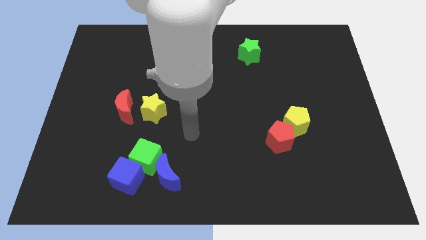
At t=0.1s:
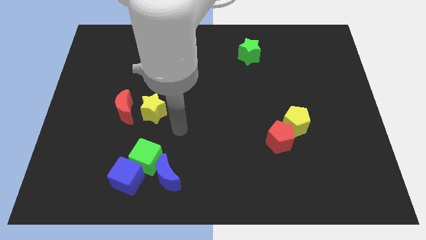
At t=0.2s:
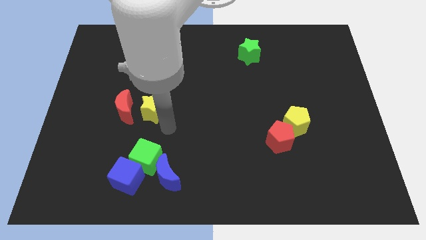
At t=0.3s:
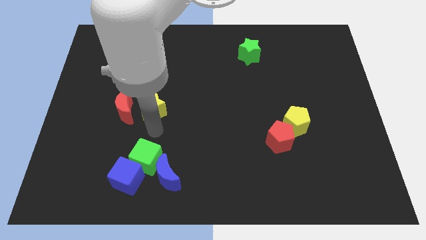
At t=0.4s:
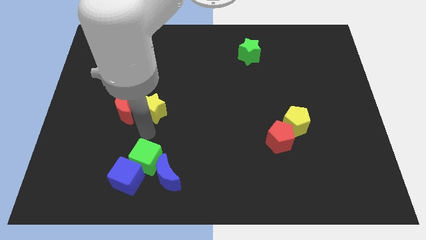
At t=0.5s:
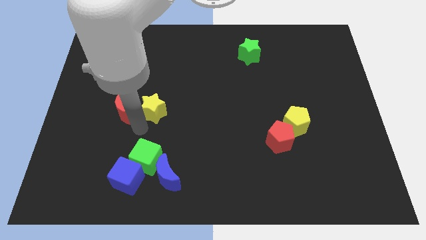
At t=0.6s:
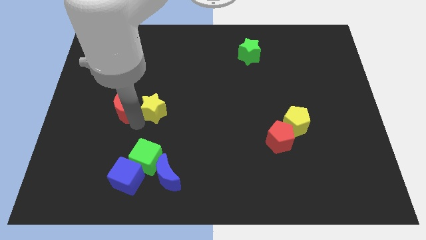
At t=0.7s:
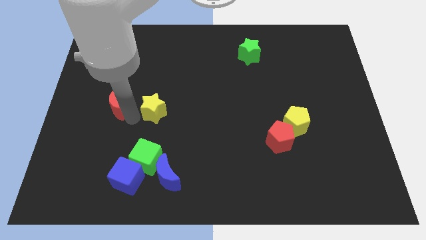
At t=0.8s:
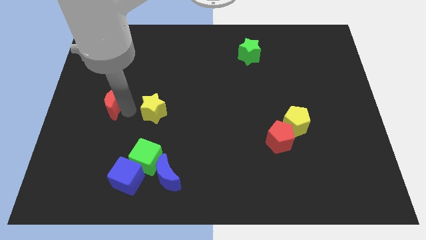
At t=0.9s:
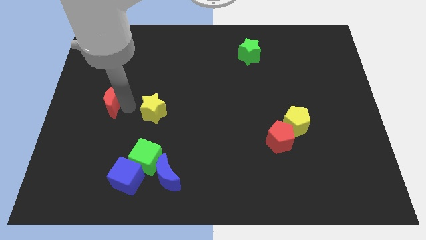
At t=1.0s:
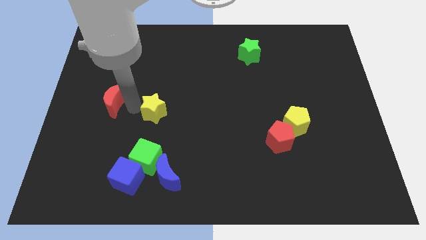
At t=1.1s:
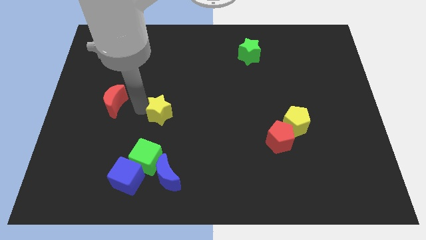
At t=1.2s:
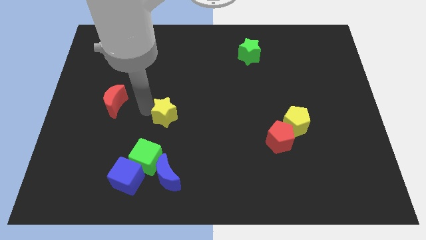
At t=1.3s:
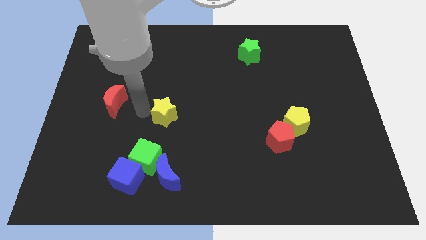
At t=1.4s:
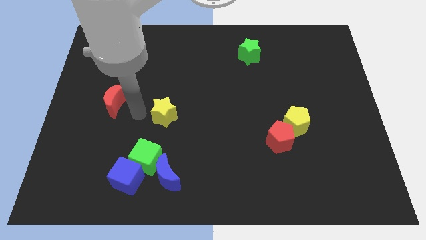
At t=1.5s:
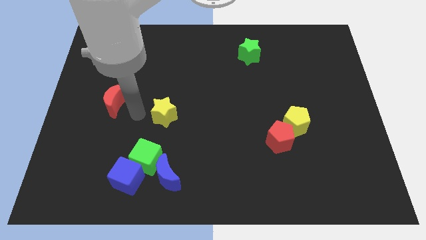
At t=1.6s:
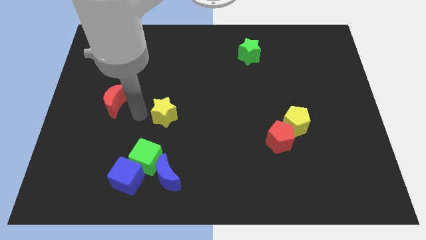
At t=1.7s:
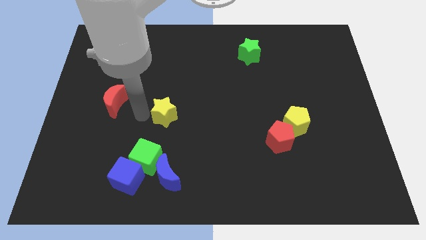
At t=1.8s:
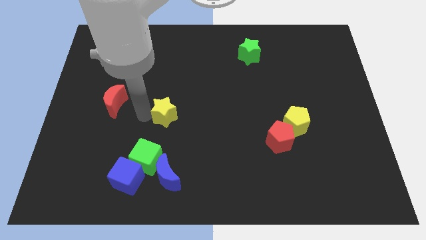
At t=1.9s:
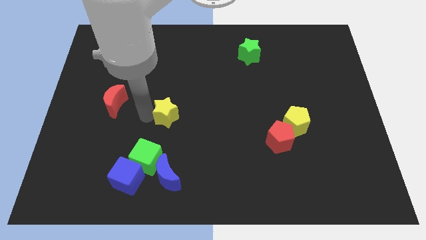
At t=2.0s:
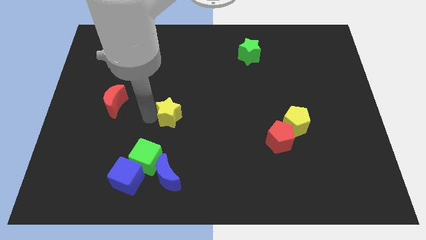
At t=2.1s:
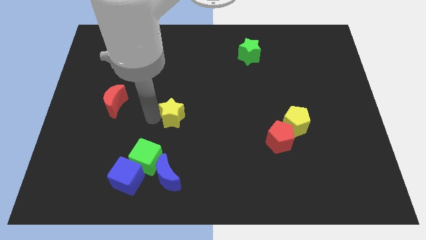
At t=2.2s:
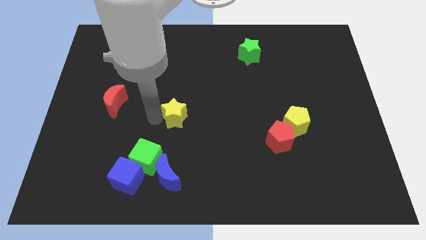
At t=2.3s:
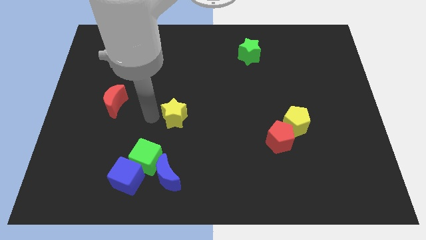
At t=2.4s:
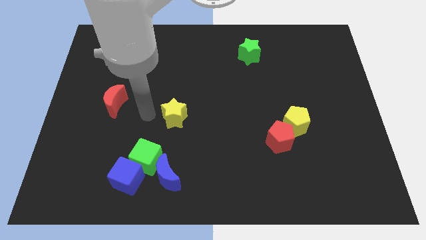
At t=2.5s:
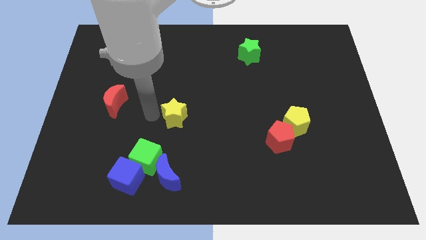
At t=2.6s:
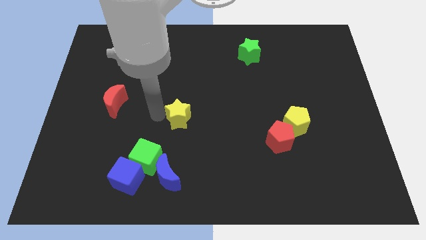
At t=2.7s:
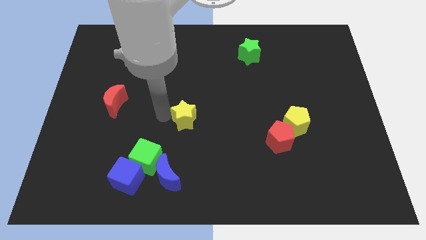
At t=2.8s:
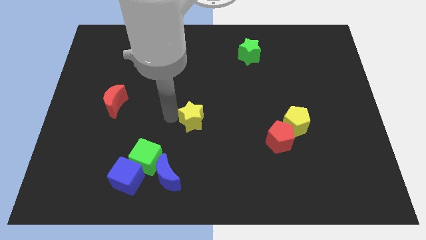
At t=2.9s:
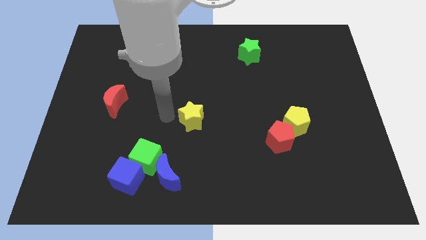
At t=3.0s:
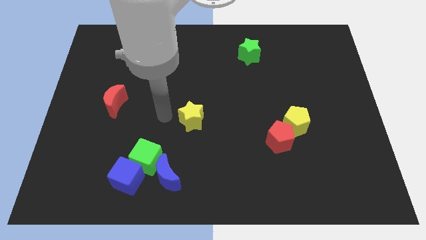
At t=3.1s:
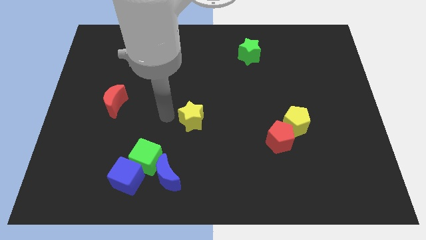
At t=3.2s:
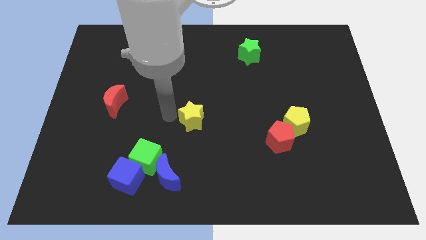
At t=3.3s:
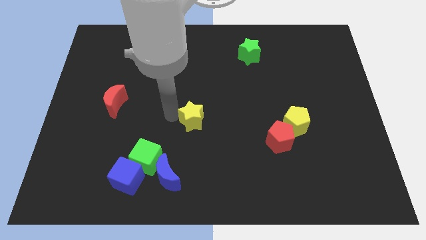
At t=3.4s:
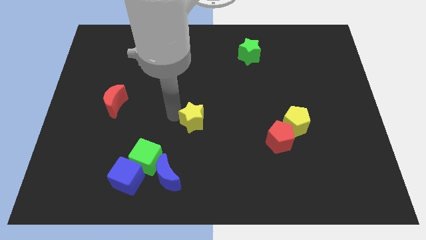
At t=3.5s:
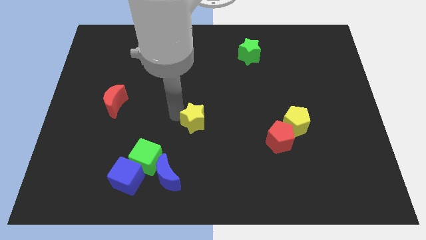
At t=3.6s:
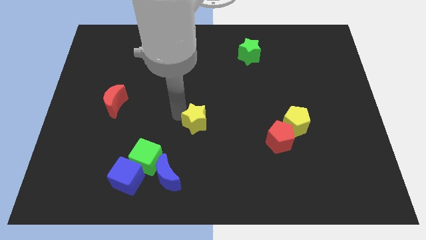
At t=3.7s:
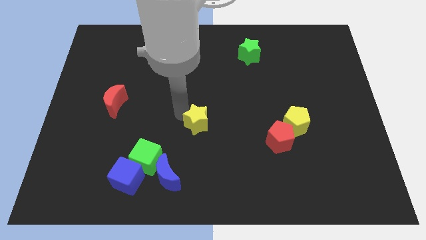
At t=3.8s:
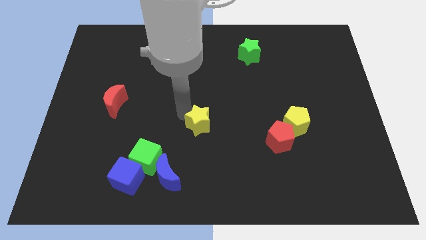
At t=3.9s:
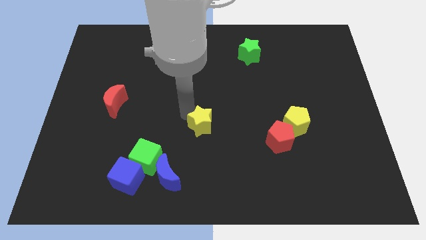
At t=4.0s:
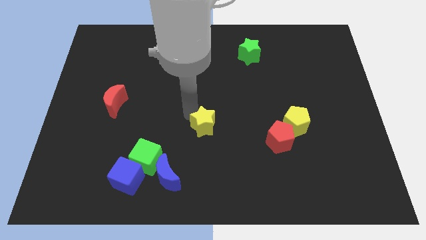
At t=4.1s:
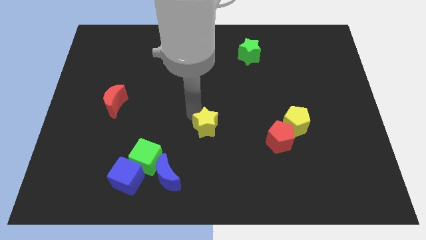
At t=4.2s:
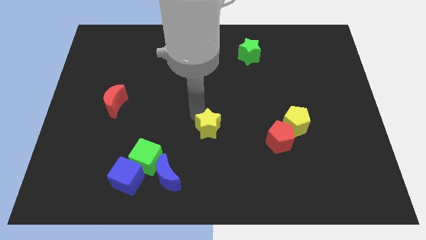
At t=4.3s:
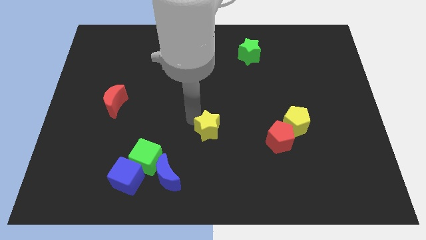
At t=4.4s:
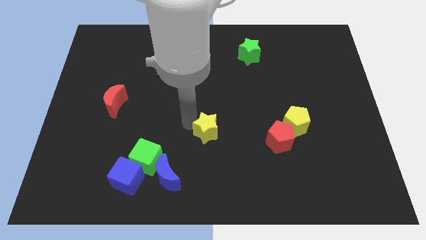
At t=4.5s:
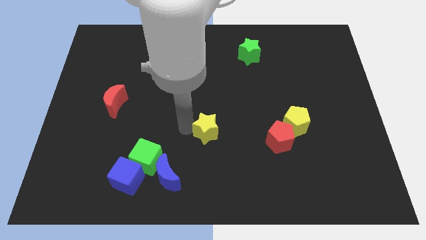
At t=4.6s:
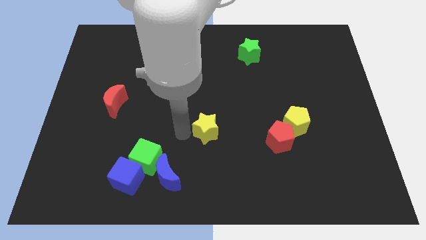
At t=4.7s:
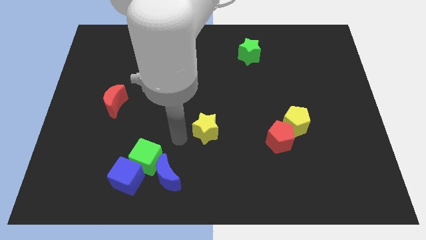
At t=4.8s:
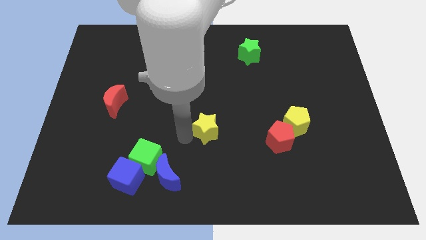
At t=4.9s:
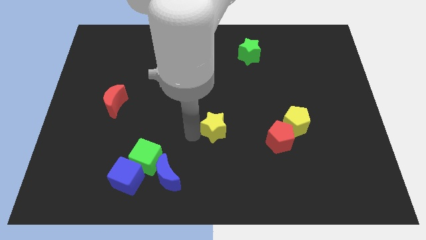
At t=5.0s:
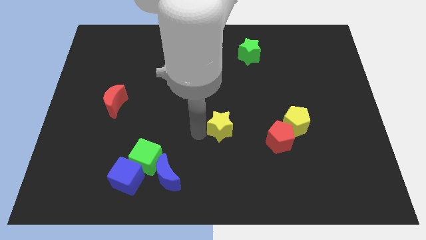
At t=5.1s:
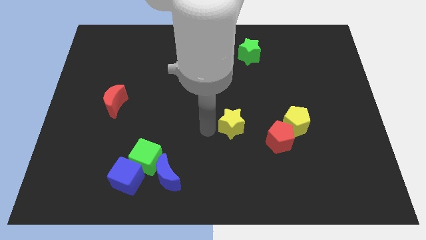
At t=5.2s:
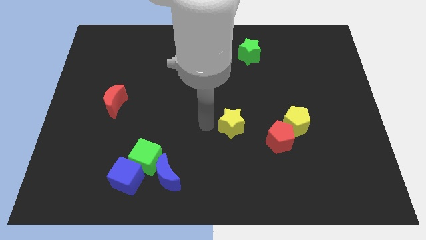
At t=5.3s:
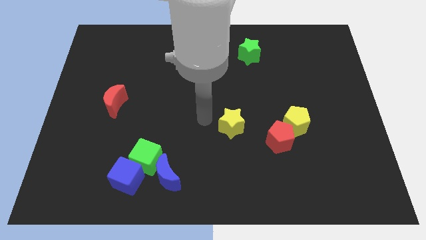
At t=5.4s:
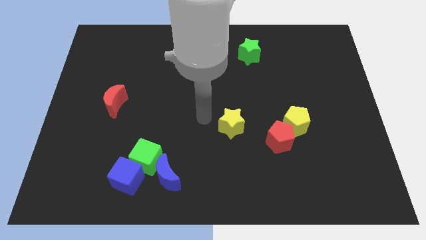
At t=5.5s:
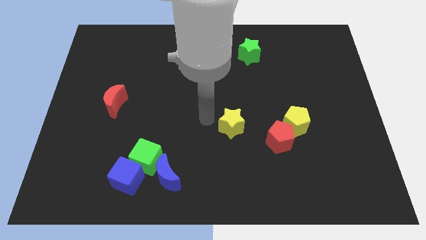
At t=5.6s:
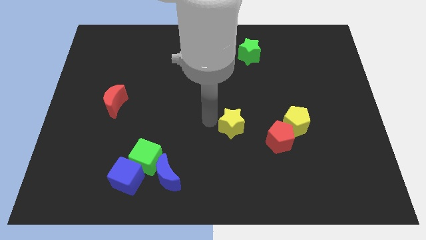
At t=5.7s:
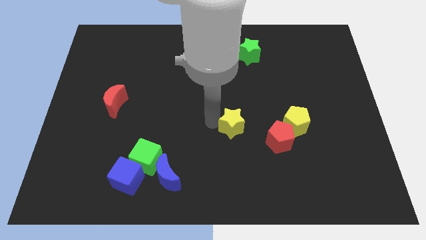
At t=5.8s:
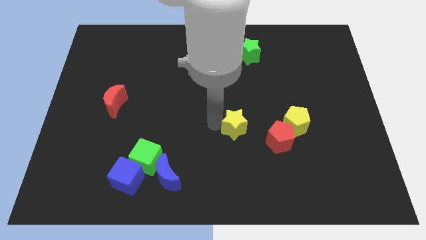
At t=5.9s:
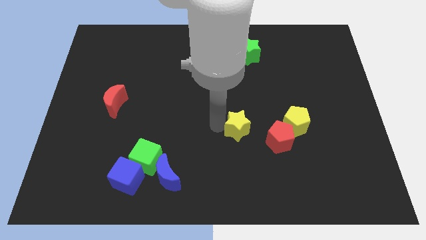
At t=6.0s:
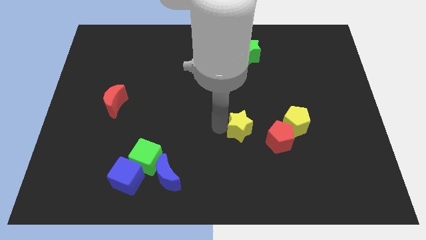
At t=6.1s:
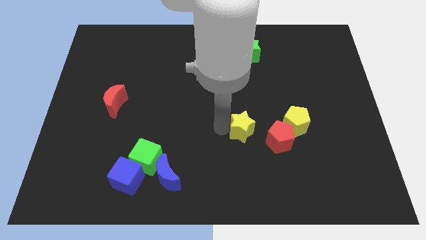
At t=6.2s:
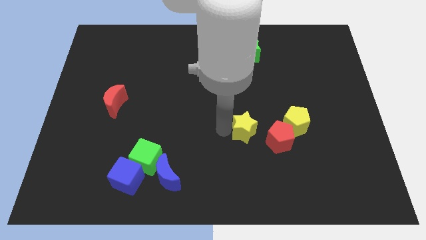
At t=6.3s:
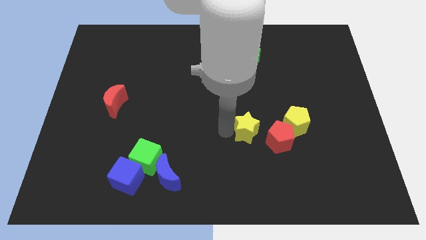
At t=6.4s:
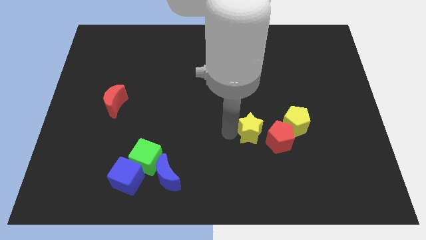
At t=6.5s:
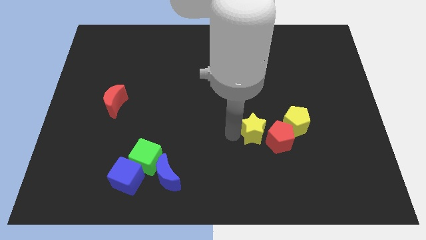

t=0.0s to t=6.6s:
move the yellow star towards the red pentagon
